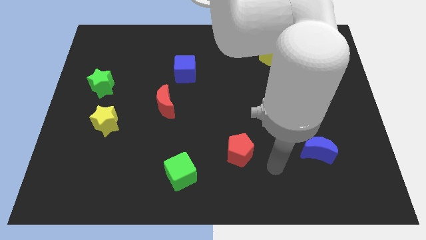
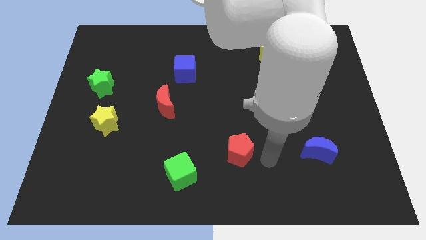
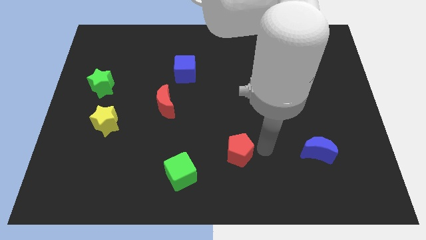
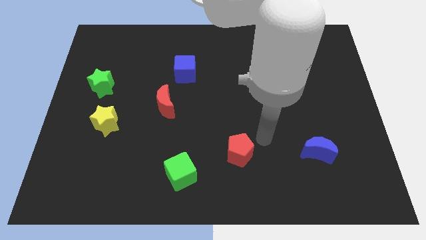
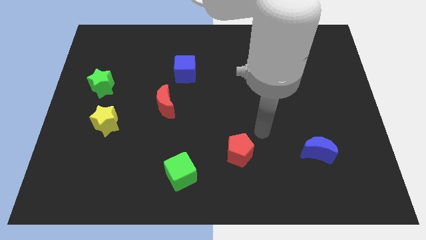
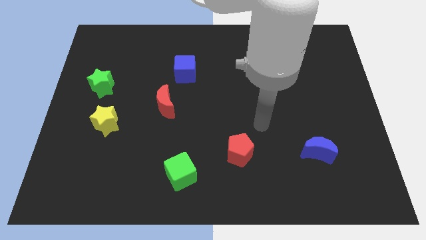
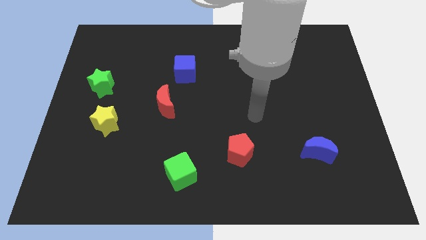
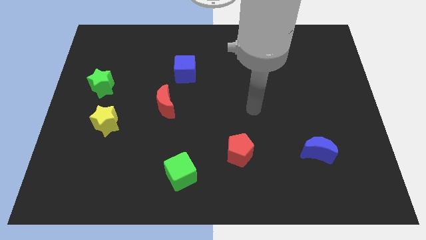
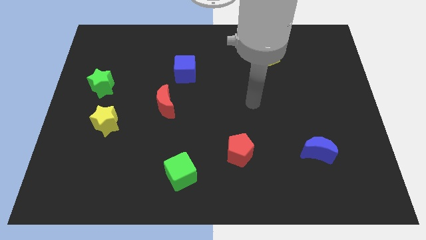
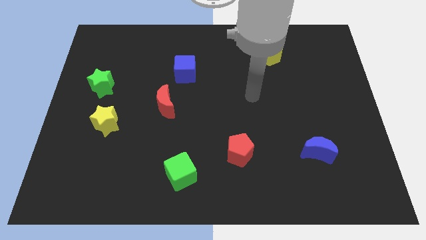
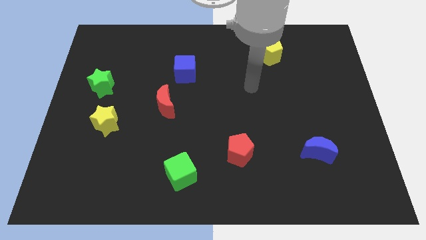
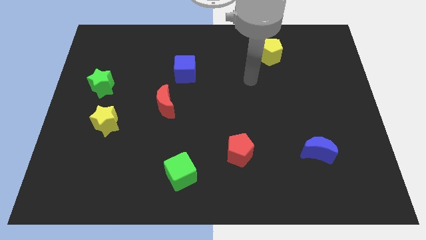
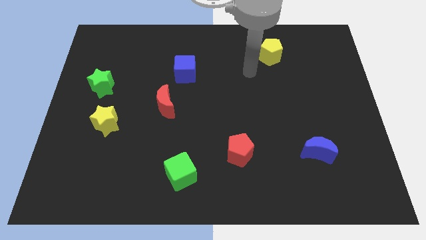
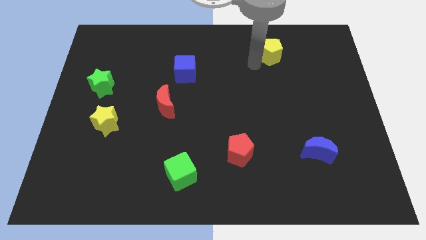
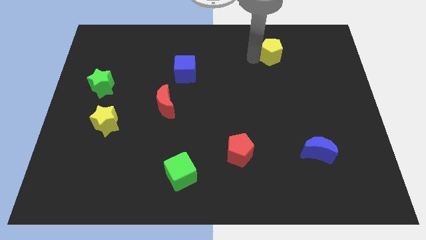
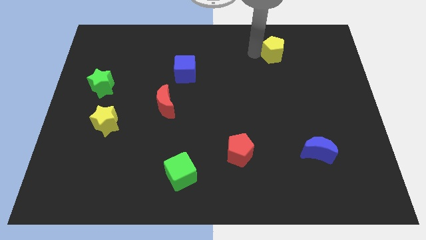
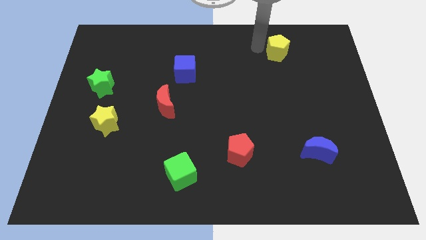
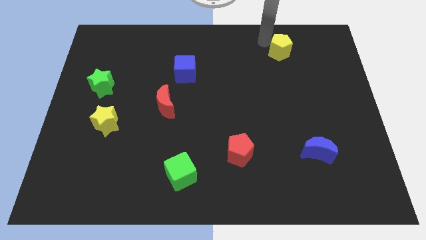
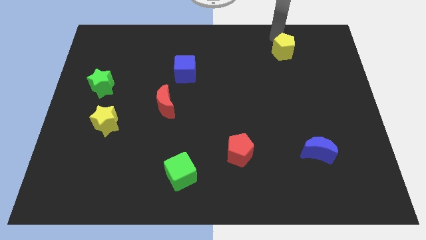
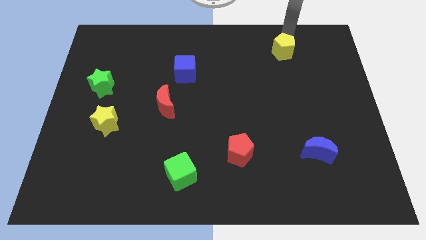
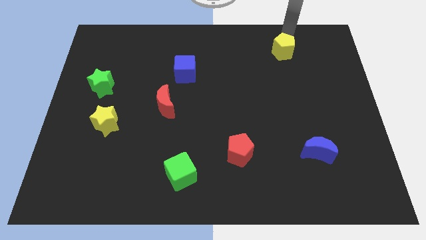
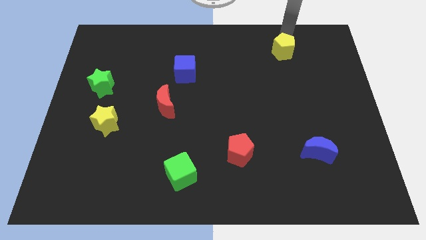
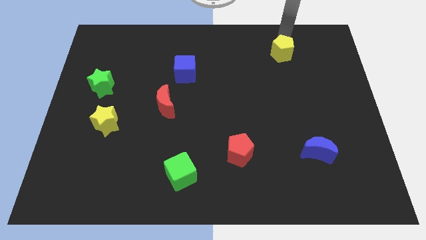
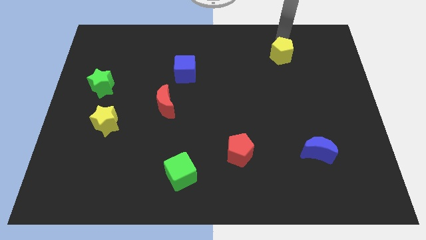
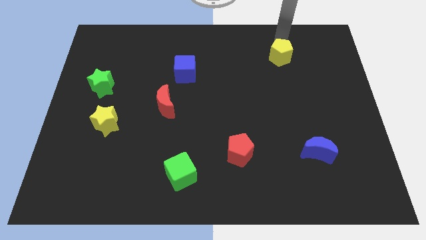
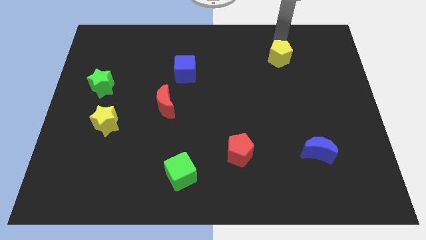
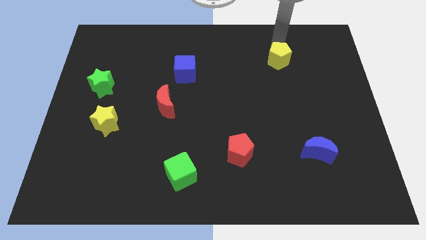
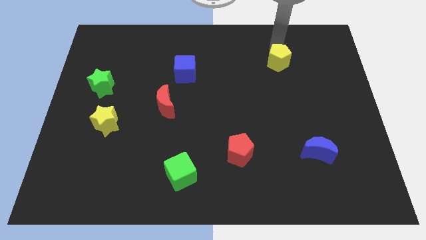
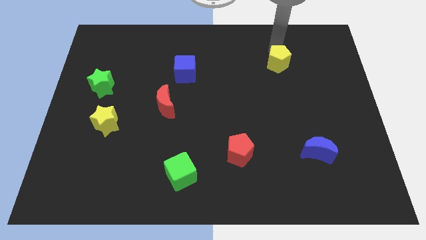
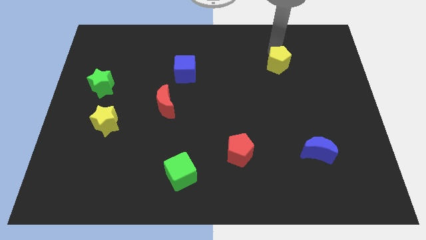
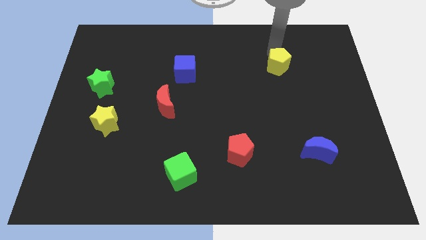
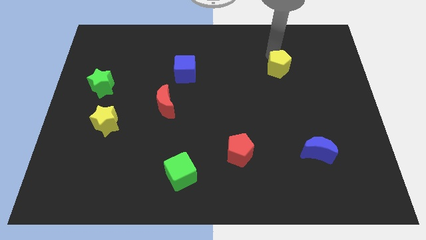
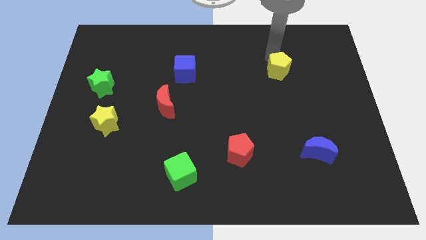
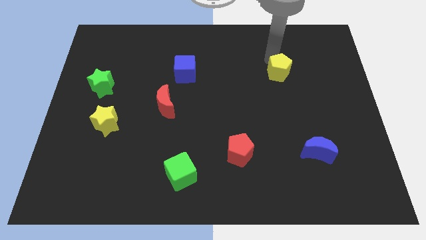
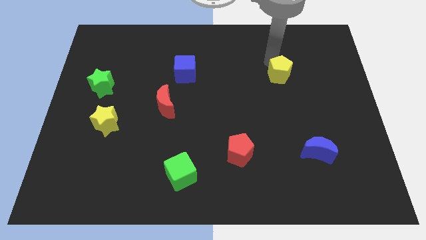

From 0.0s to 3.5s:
slightly slide the yellow pentagon down

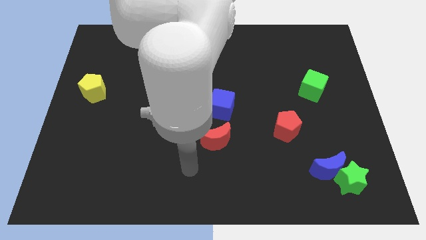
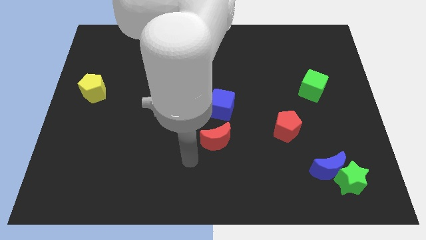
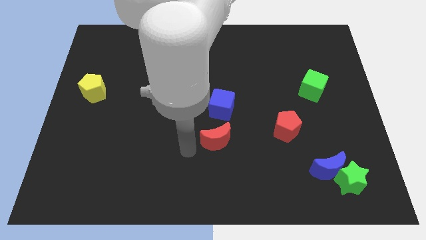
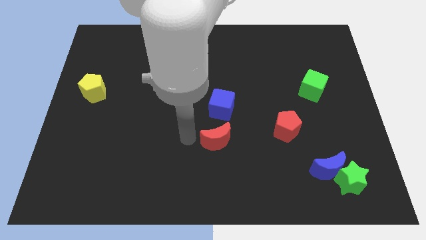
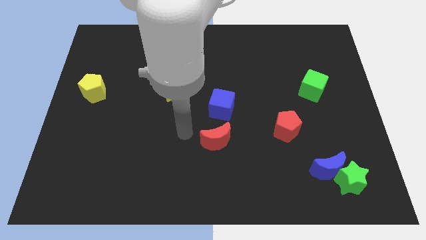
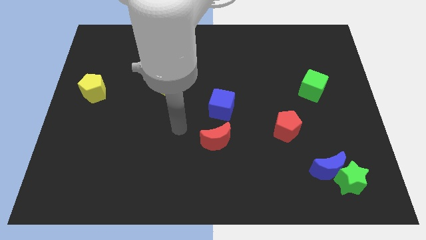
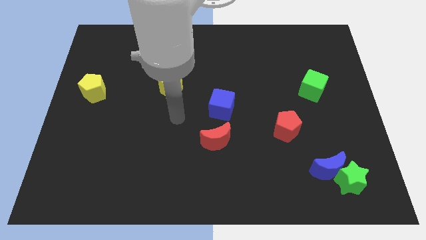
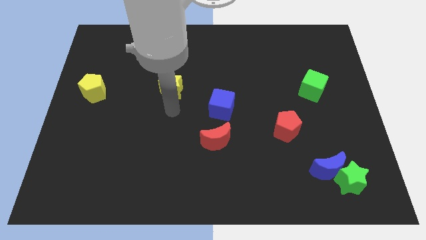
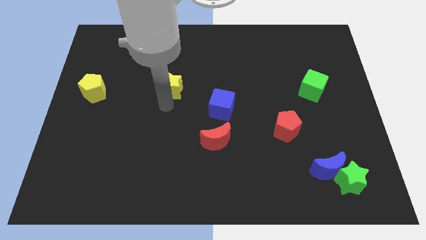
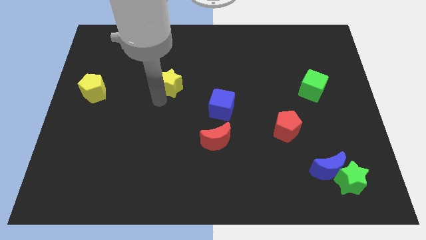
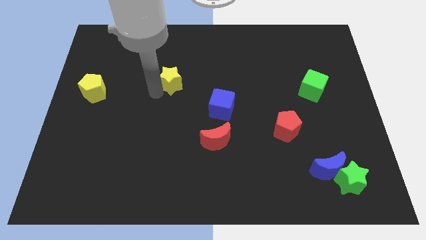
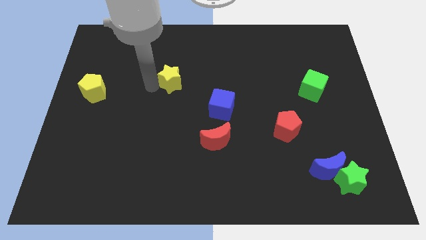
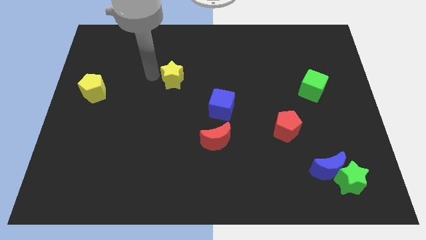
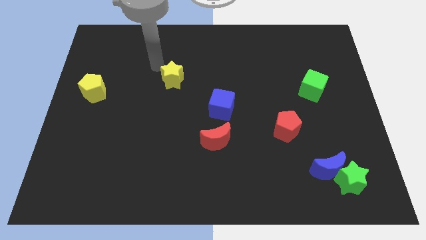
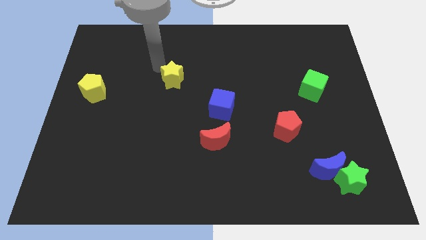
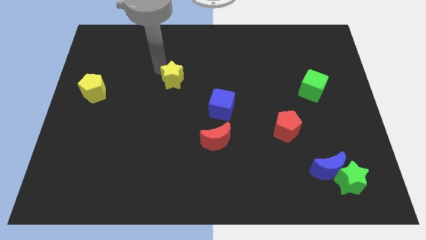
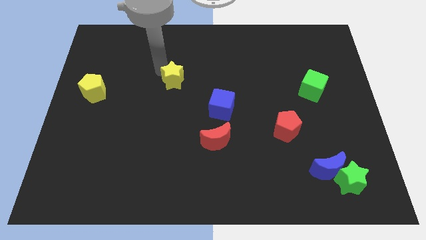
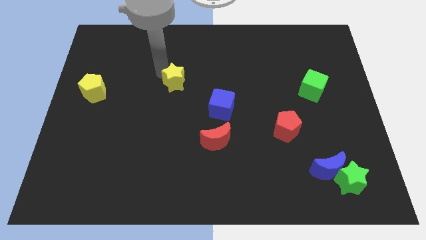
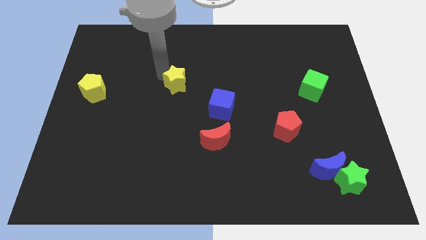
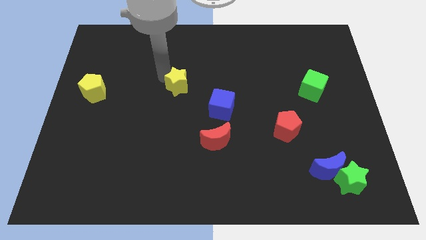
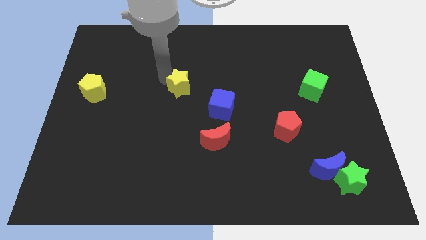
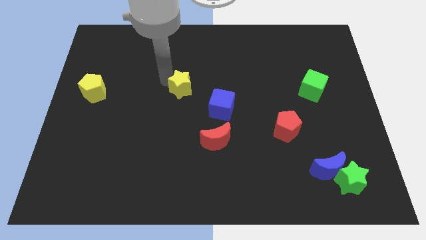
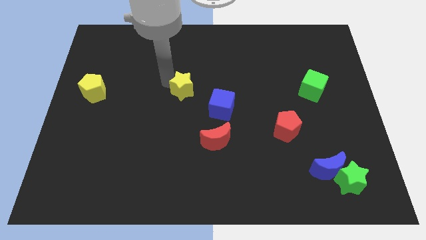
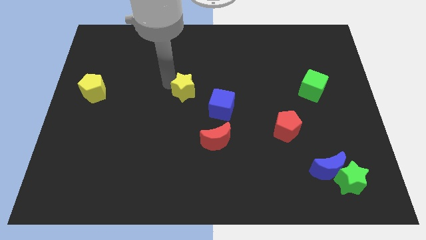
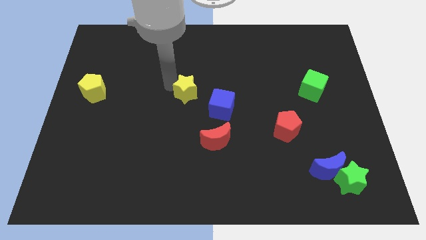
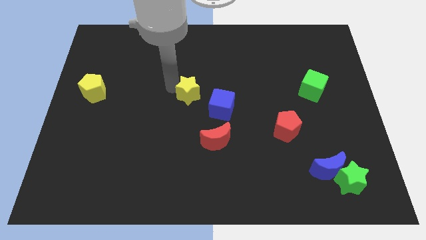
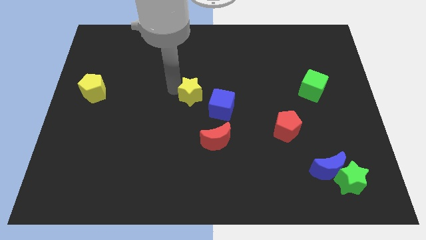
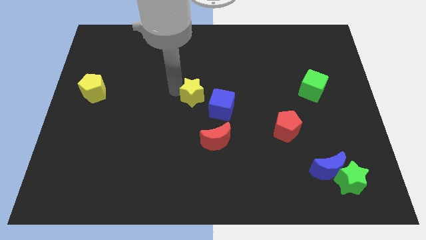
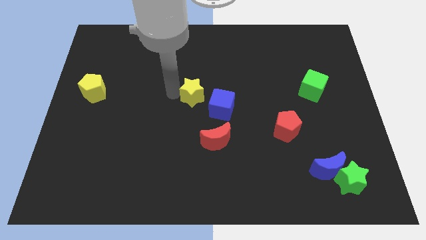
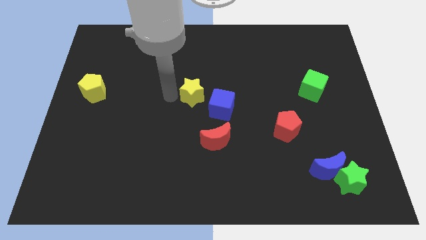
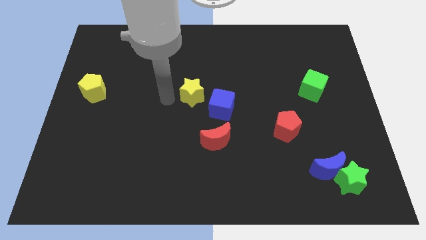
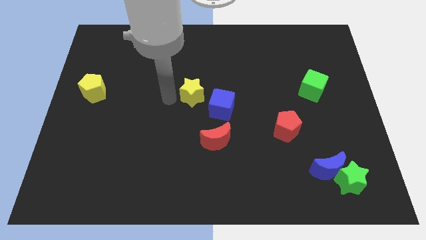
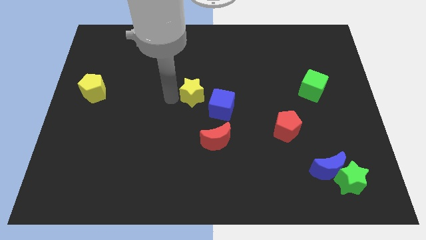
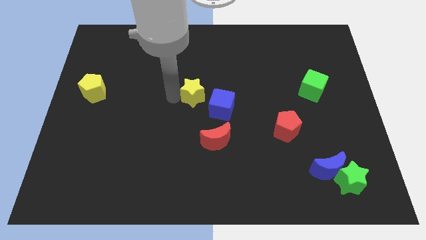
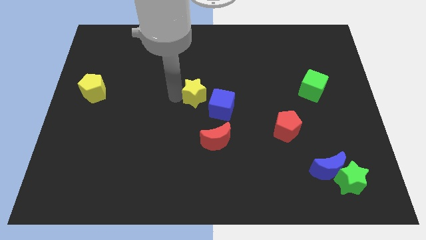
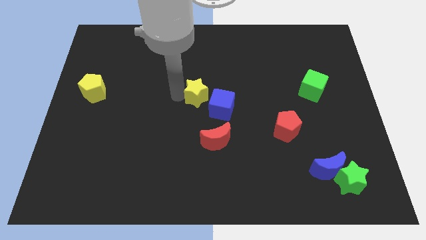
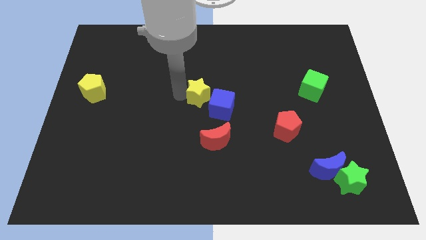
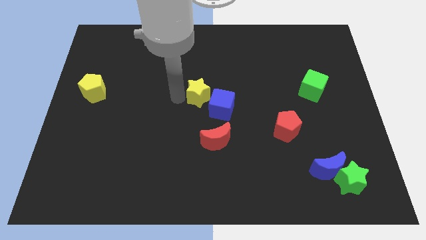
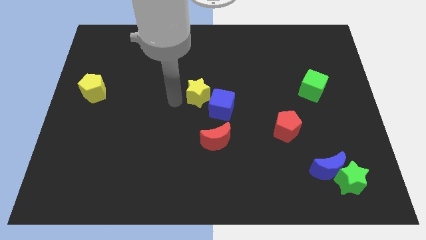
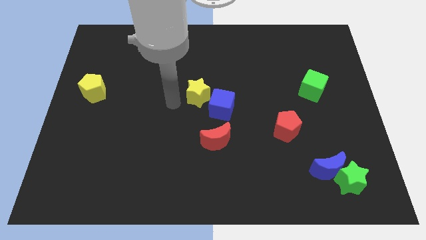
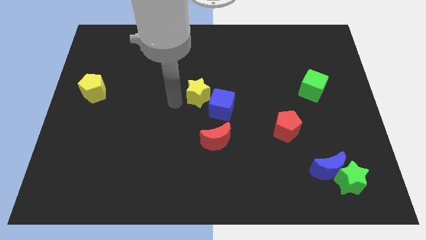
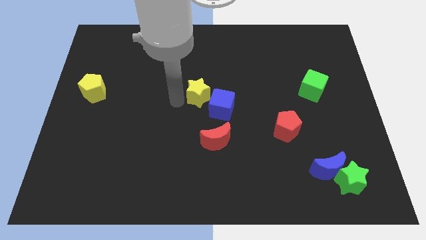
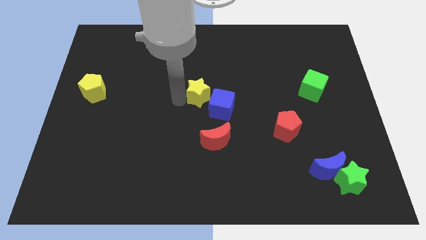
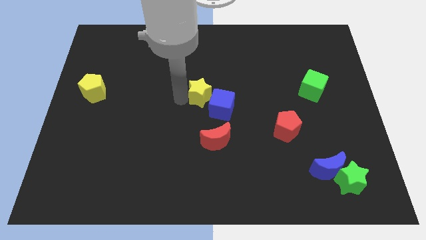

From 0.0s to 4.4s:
push the yellow star right somewhat
